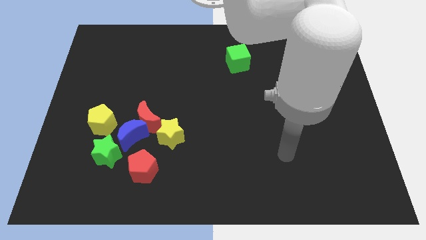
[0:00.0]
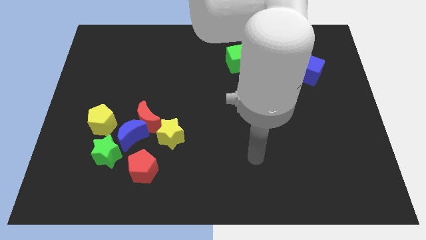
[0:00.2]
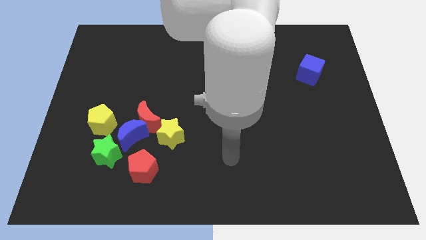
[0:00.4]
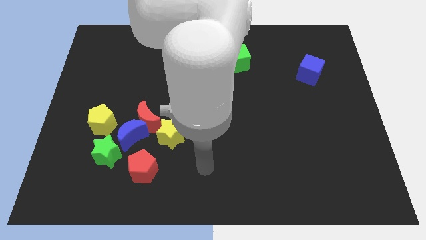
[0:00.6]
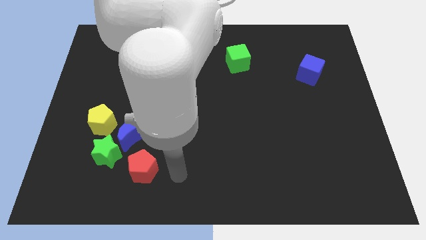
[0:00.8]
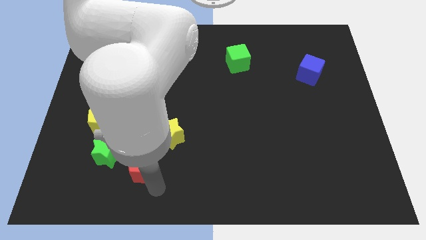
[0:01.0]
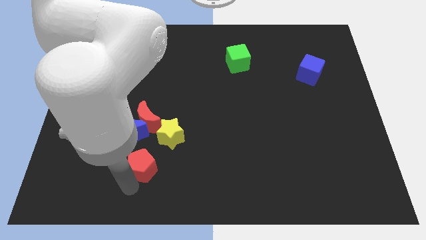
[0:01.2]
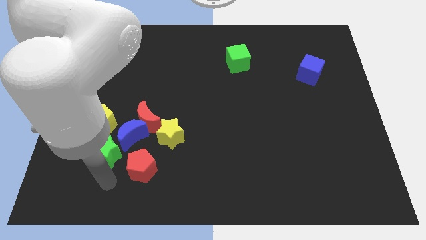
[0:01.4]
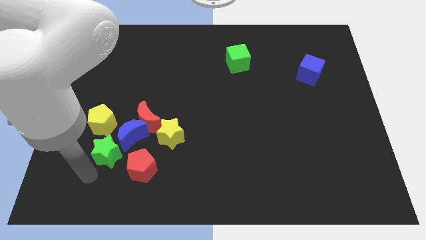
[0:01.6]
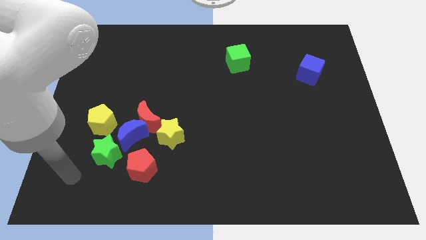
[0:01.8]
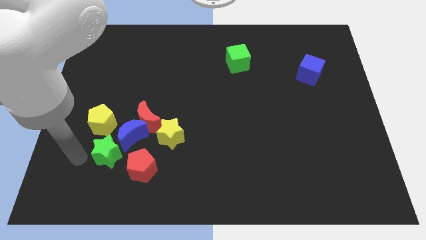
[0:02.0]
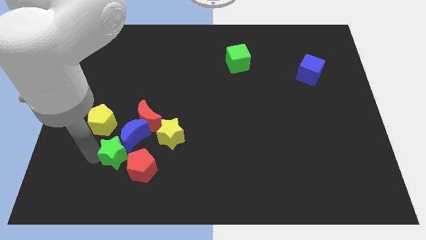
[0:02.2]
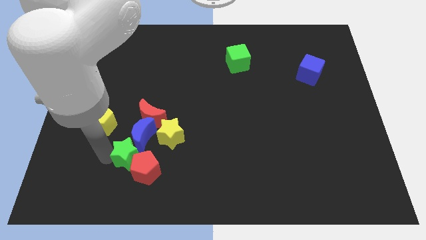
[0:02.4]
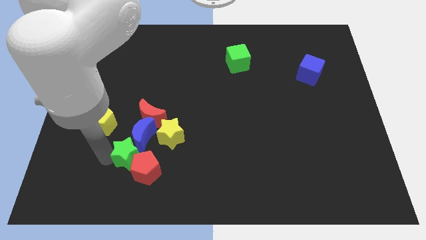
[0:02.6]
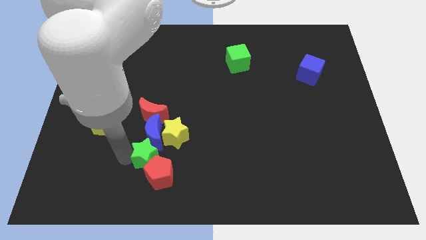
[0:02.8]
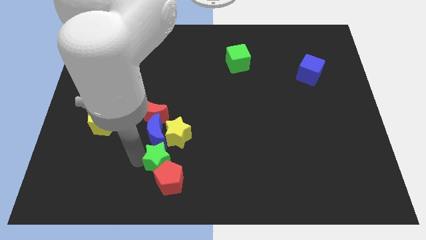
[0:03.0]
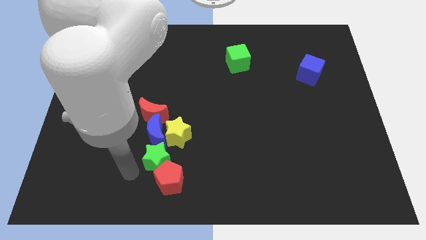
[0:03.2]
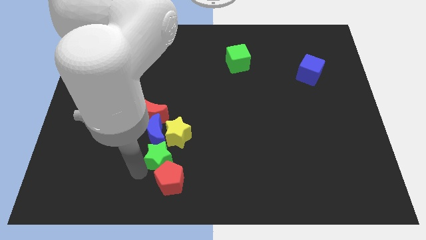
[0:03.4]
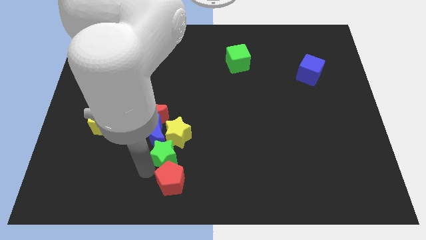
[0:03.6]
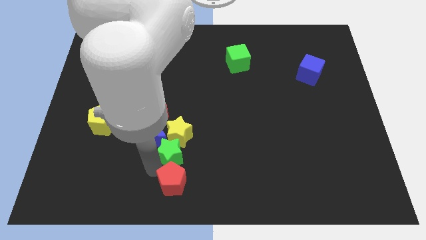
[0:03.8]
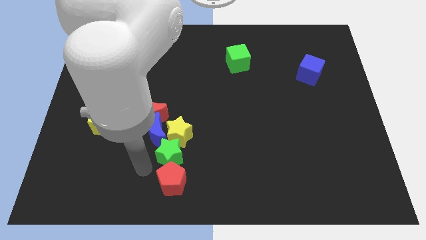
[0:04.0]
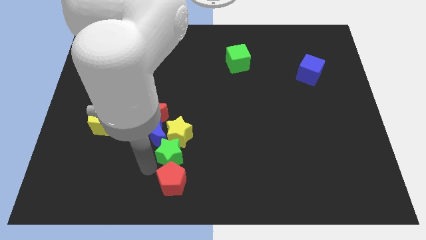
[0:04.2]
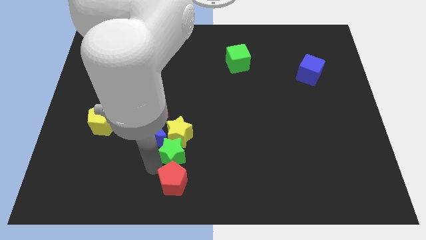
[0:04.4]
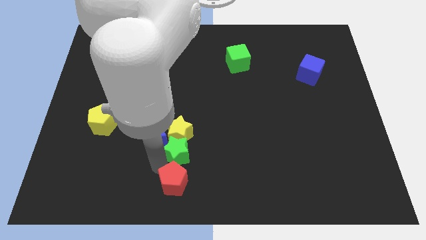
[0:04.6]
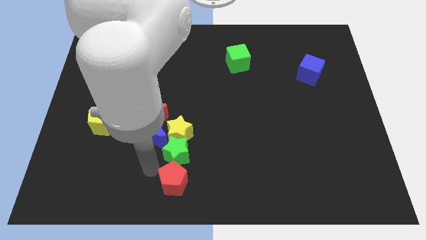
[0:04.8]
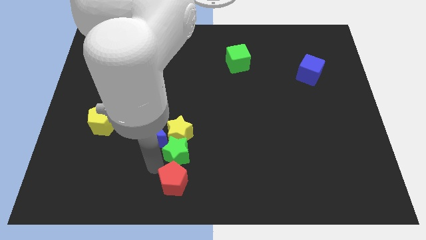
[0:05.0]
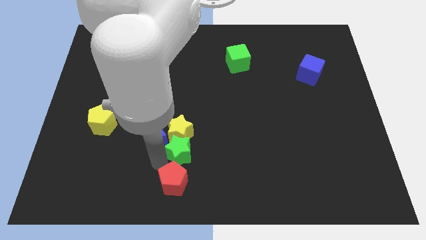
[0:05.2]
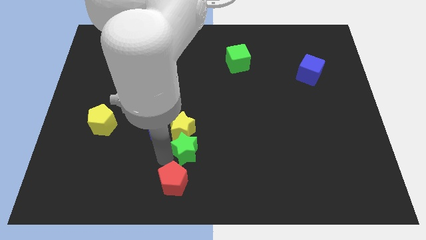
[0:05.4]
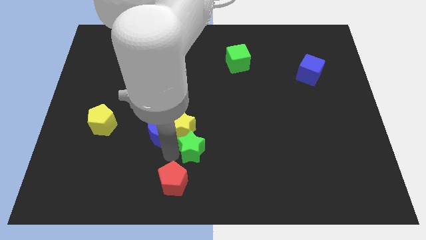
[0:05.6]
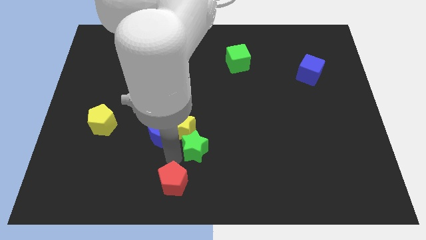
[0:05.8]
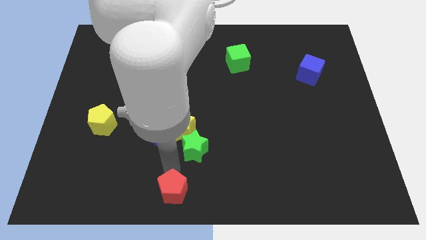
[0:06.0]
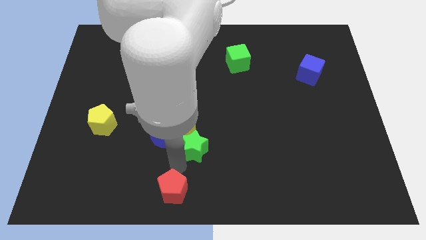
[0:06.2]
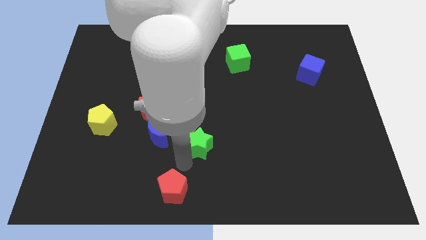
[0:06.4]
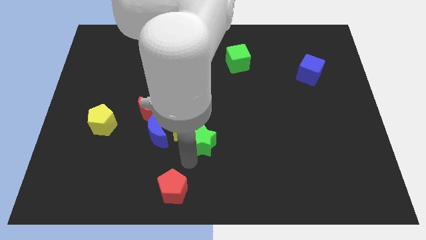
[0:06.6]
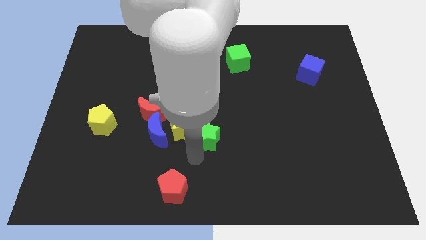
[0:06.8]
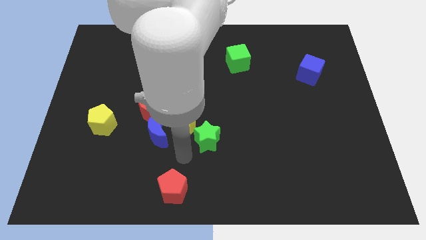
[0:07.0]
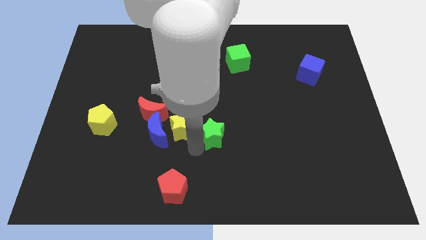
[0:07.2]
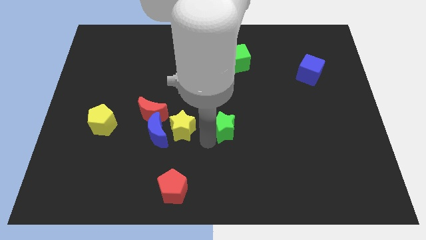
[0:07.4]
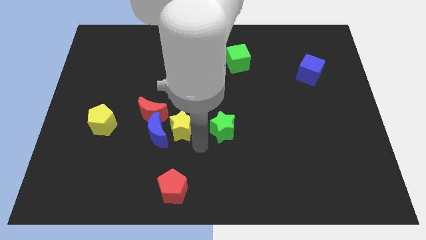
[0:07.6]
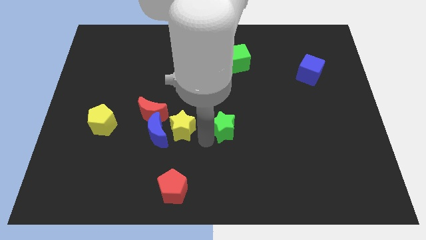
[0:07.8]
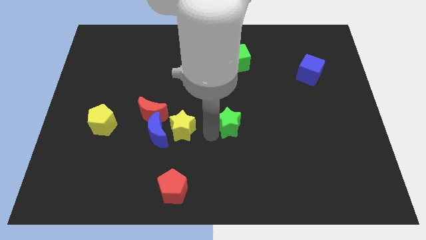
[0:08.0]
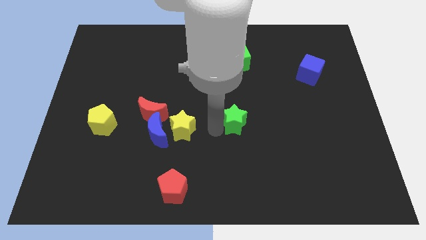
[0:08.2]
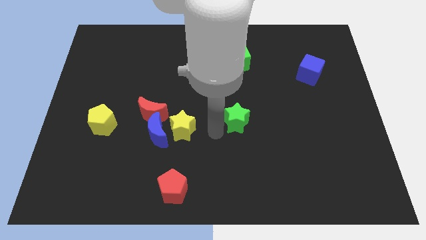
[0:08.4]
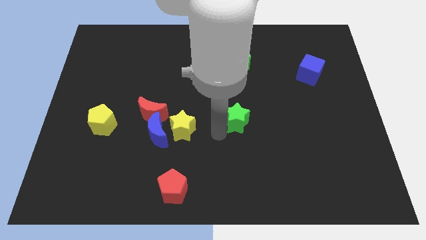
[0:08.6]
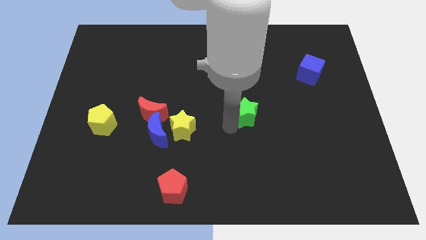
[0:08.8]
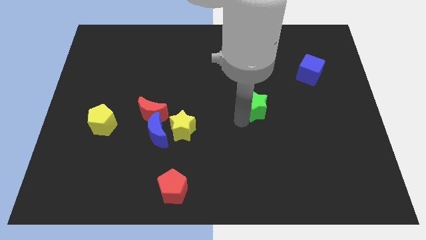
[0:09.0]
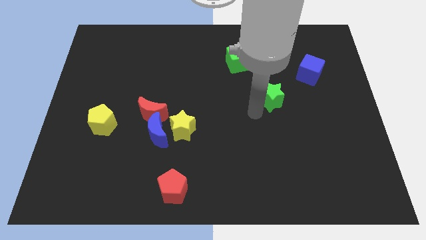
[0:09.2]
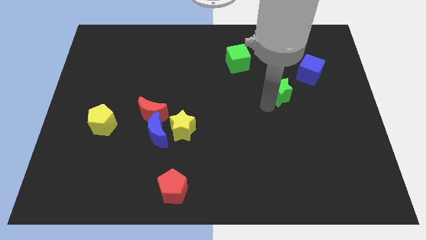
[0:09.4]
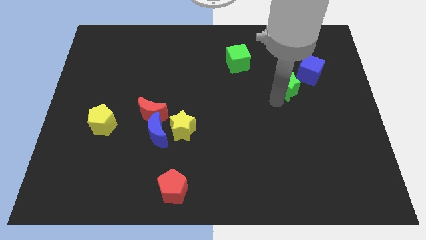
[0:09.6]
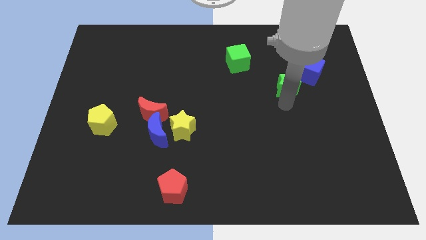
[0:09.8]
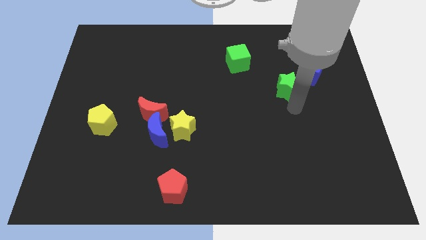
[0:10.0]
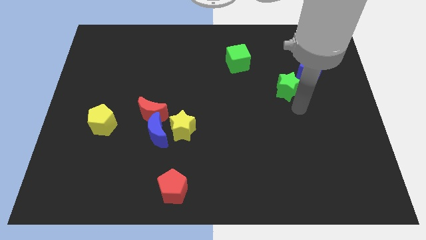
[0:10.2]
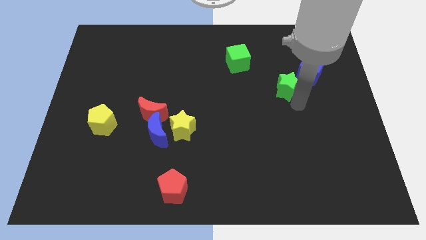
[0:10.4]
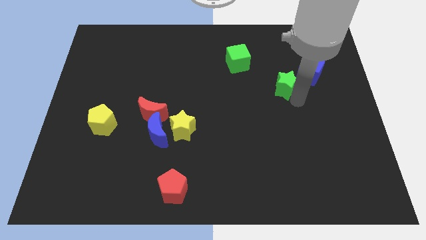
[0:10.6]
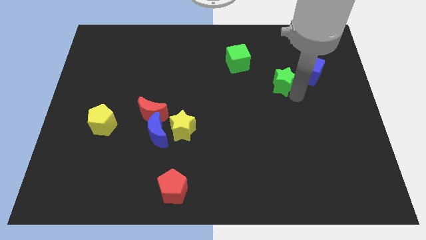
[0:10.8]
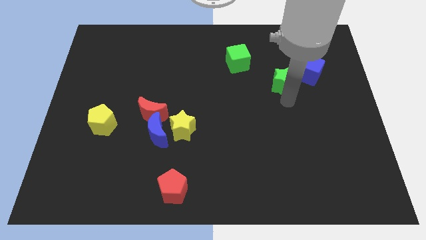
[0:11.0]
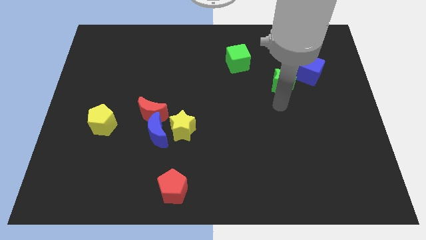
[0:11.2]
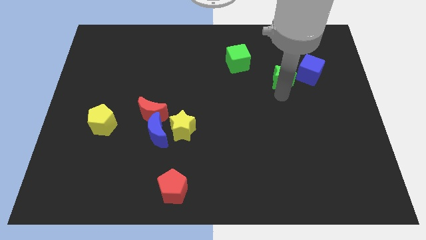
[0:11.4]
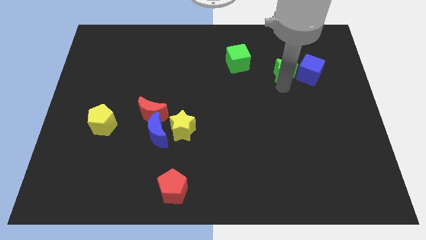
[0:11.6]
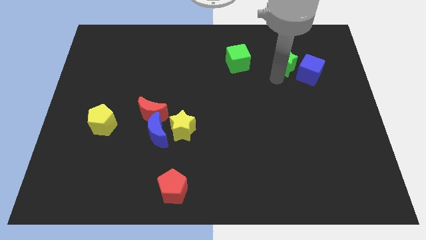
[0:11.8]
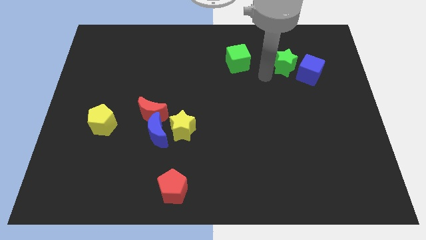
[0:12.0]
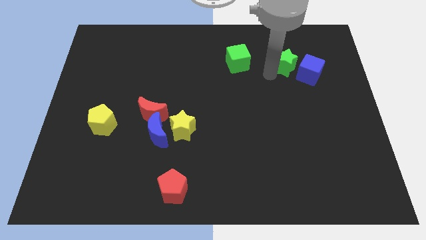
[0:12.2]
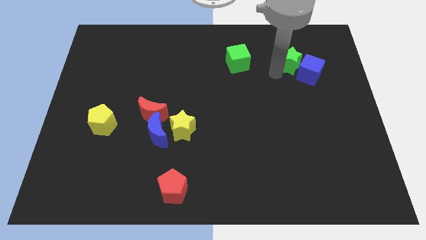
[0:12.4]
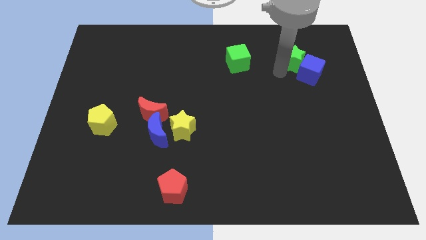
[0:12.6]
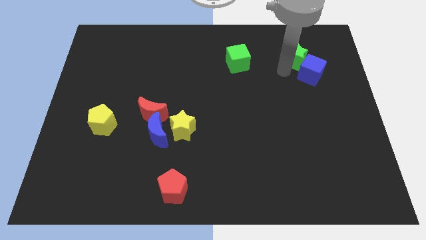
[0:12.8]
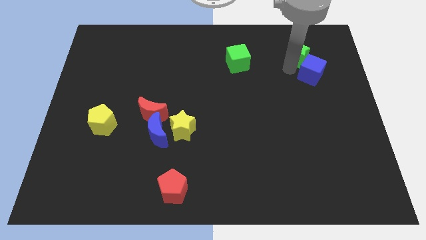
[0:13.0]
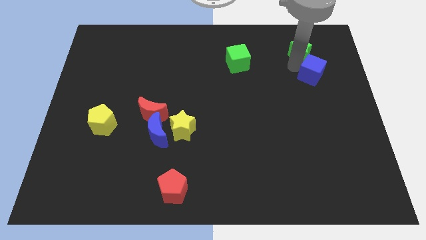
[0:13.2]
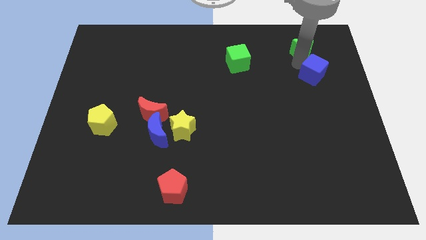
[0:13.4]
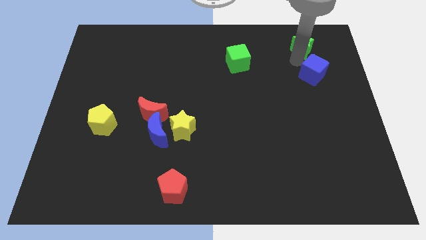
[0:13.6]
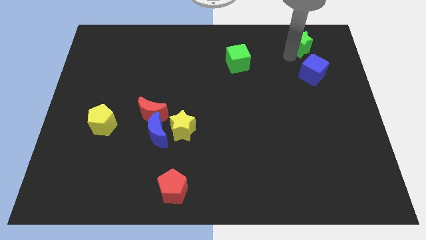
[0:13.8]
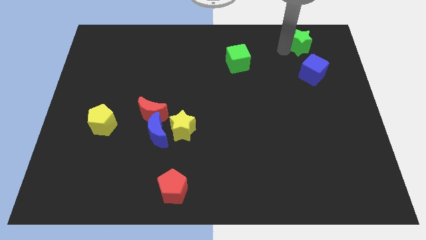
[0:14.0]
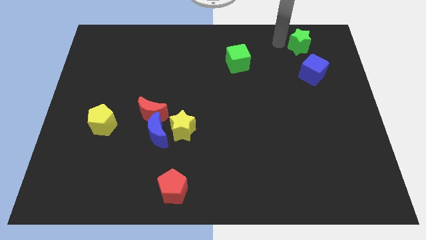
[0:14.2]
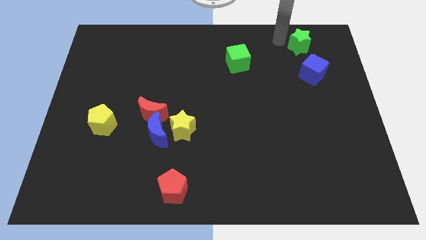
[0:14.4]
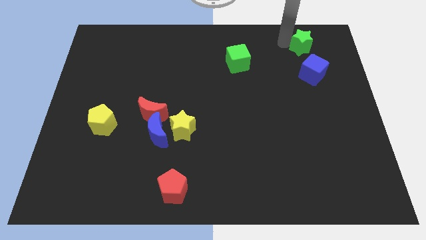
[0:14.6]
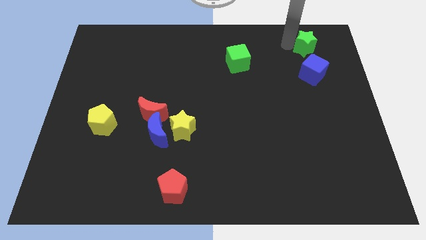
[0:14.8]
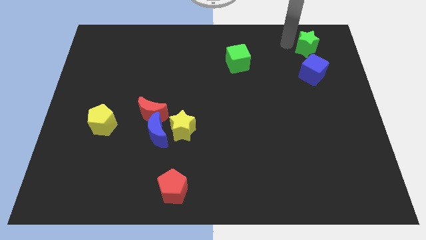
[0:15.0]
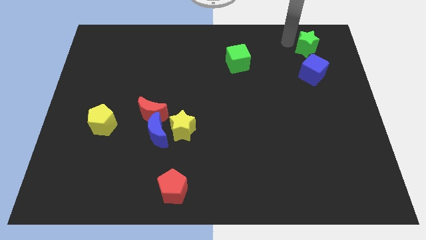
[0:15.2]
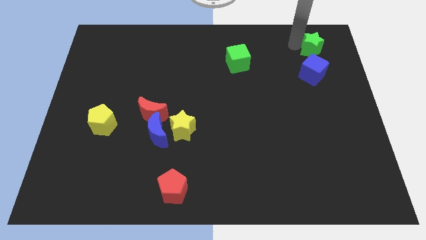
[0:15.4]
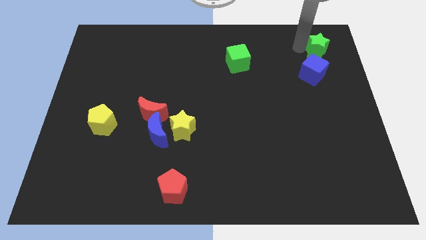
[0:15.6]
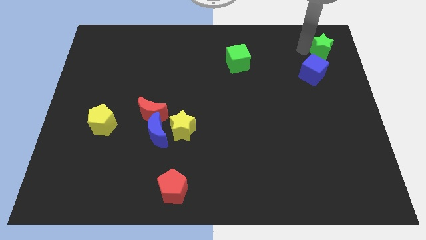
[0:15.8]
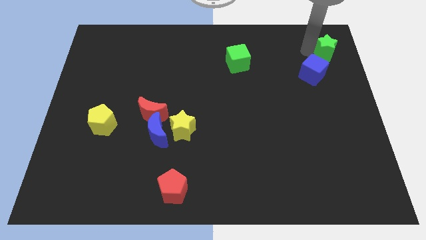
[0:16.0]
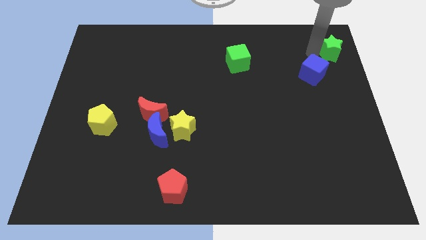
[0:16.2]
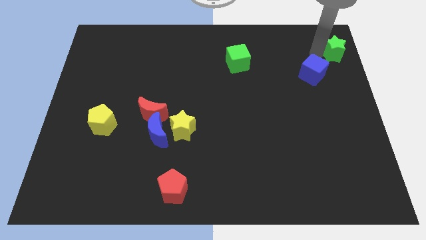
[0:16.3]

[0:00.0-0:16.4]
move the green star to the top right
